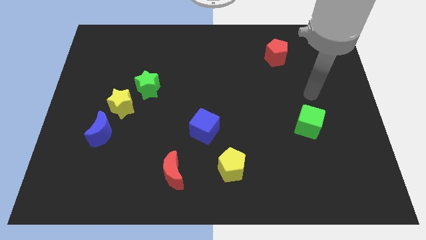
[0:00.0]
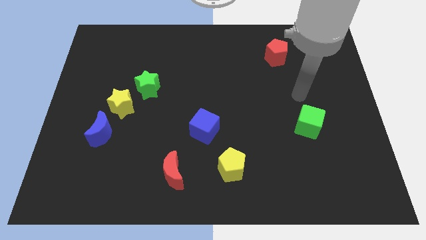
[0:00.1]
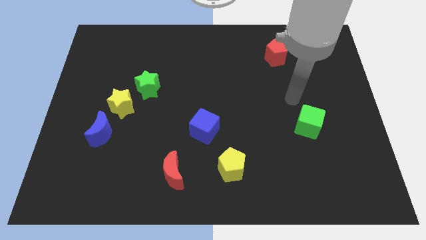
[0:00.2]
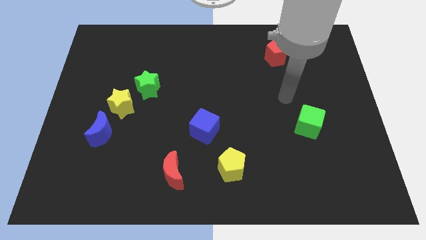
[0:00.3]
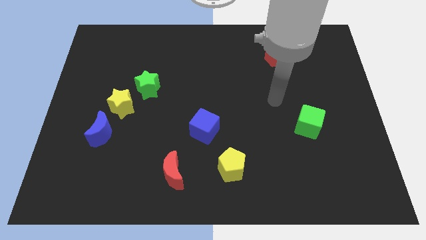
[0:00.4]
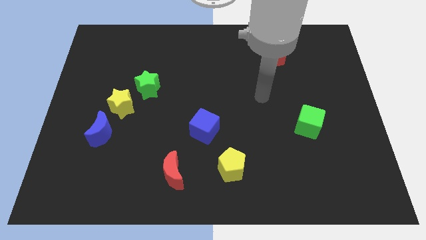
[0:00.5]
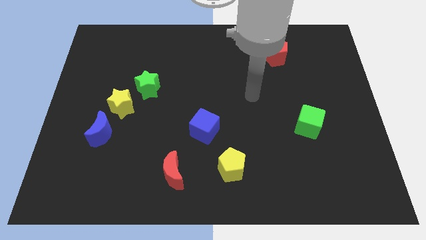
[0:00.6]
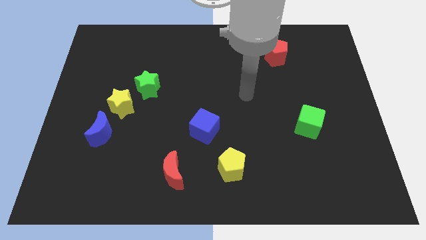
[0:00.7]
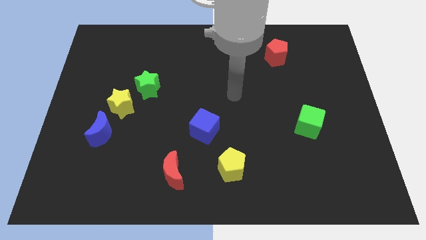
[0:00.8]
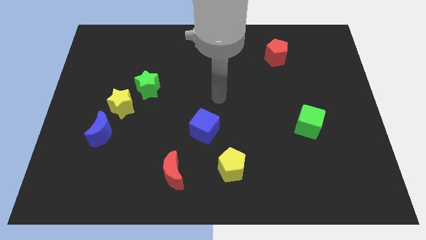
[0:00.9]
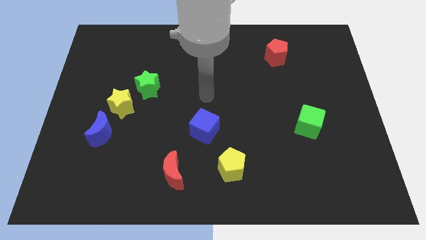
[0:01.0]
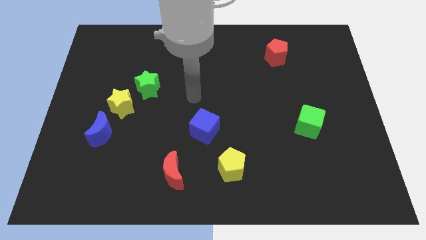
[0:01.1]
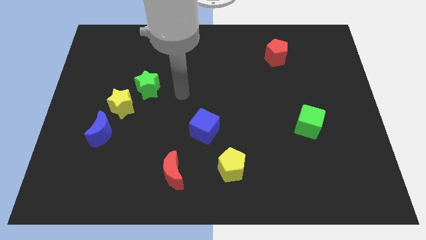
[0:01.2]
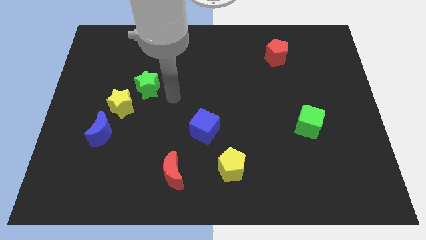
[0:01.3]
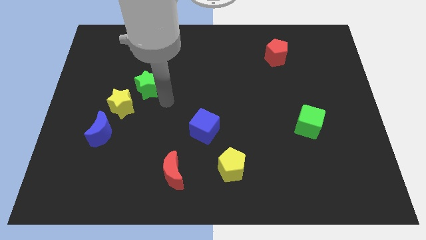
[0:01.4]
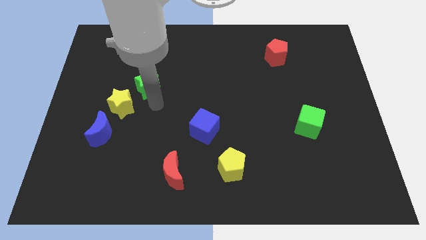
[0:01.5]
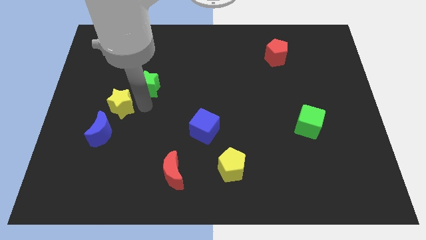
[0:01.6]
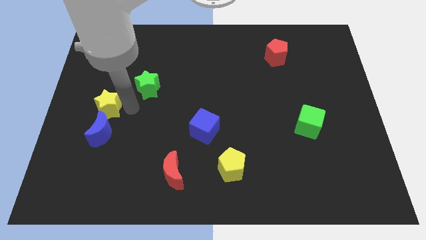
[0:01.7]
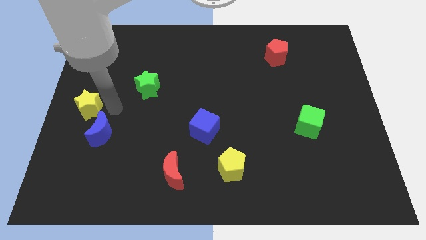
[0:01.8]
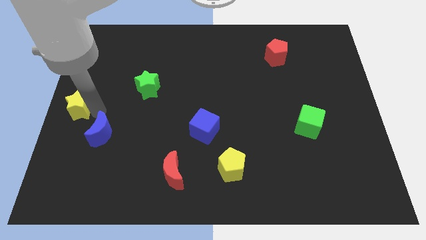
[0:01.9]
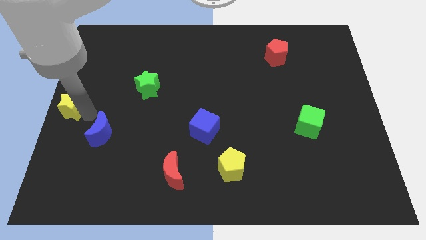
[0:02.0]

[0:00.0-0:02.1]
pull the blue moon apart from the yellow star

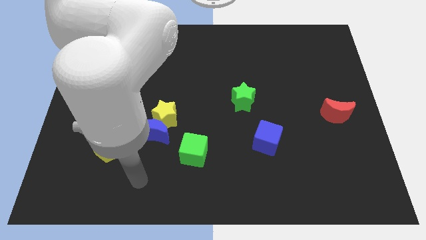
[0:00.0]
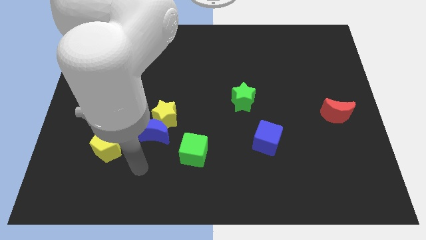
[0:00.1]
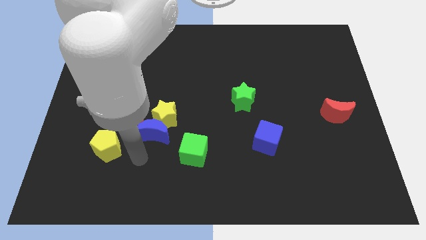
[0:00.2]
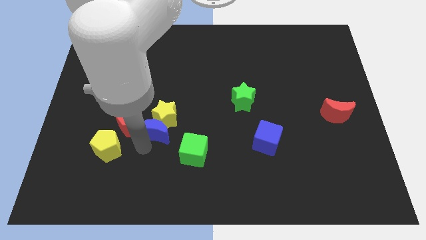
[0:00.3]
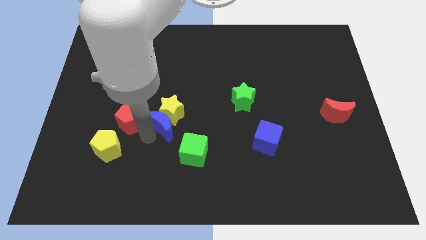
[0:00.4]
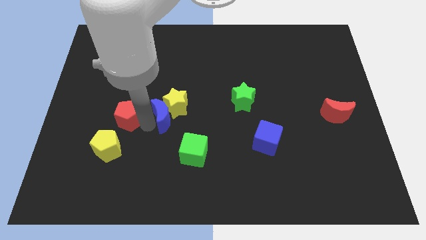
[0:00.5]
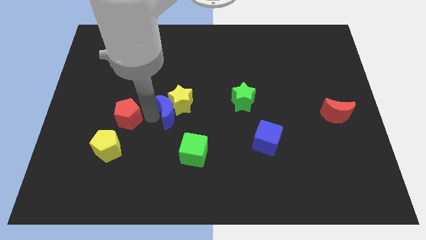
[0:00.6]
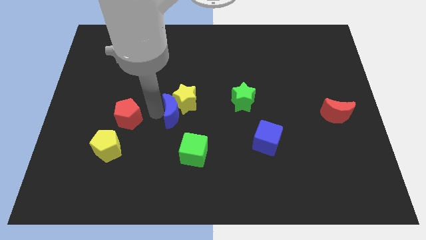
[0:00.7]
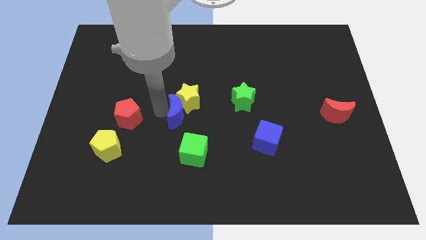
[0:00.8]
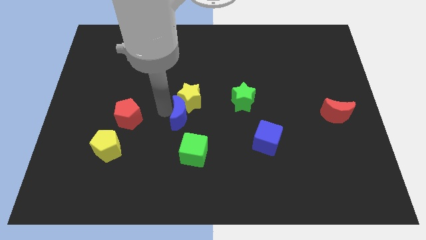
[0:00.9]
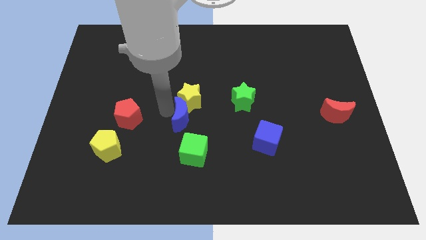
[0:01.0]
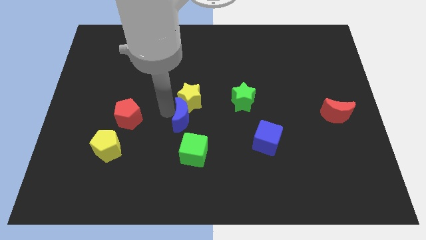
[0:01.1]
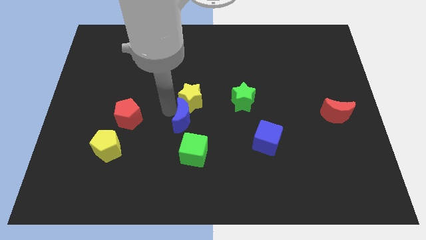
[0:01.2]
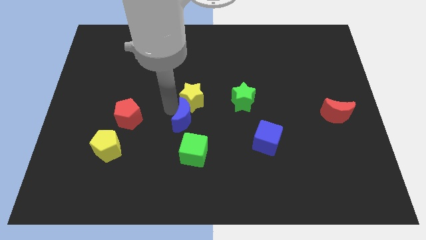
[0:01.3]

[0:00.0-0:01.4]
separate the yellow star from the blue moon and red pentagon

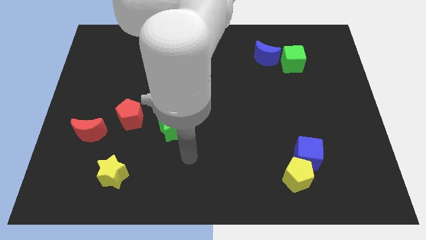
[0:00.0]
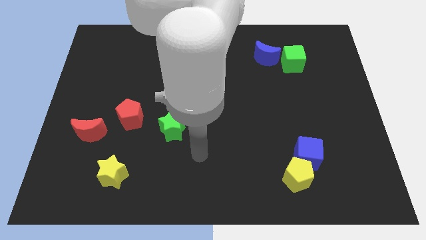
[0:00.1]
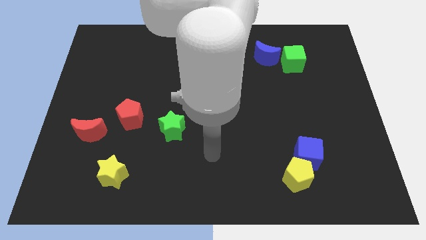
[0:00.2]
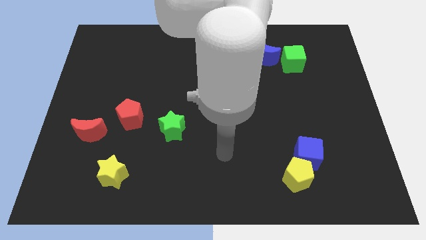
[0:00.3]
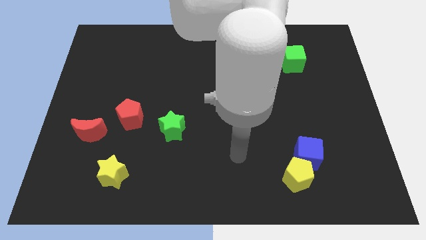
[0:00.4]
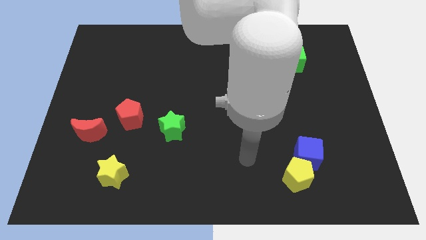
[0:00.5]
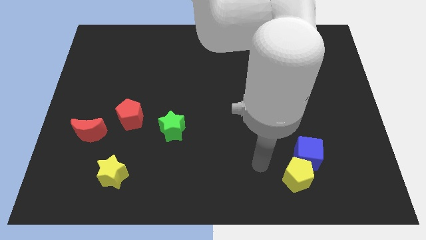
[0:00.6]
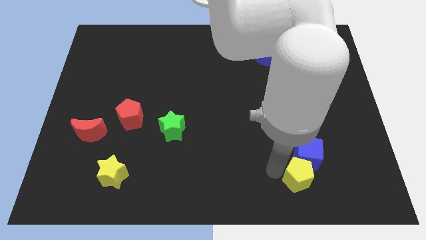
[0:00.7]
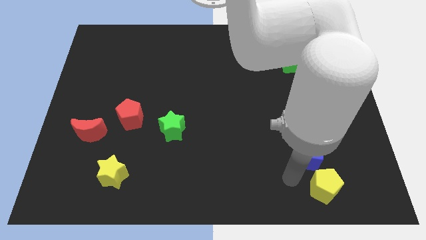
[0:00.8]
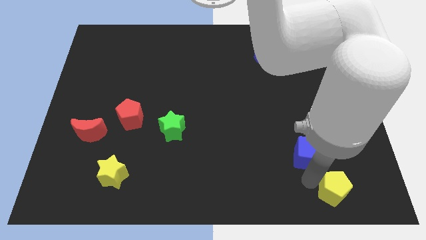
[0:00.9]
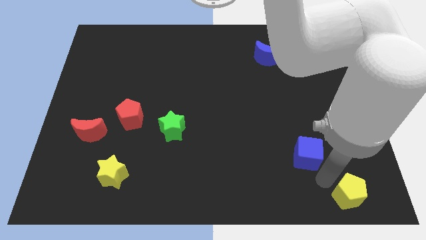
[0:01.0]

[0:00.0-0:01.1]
move the blue cube away from the yellow pentagon

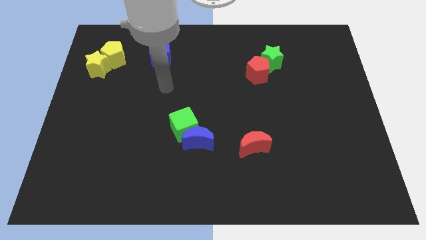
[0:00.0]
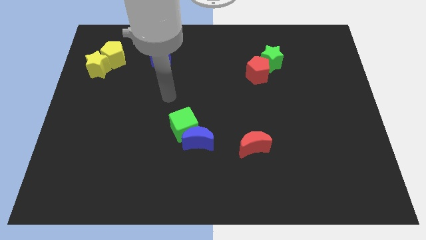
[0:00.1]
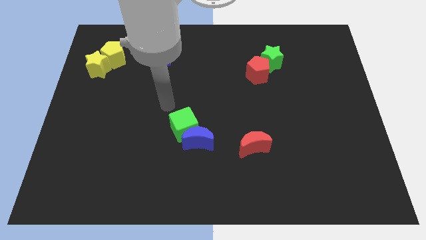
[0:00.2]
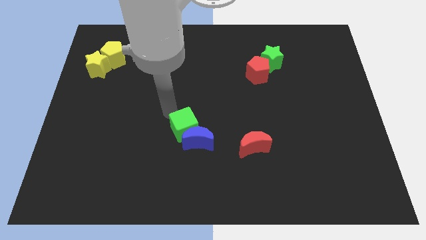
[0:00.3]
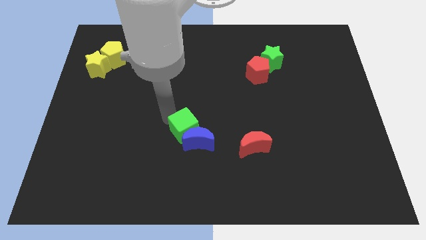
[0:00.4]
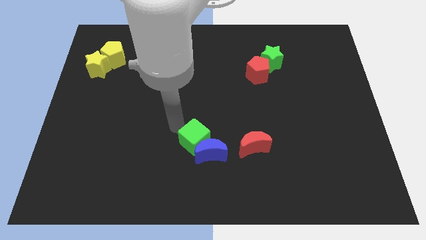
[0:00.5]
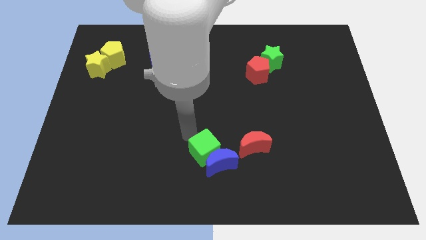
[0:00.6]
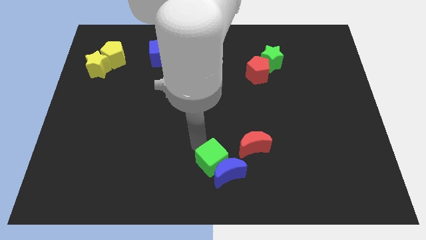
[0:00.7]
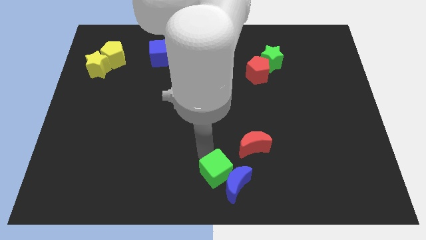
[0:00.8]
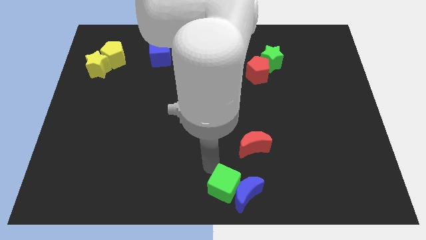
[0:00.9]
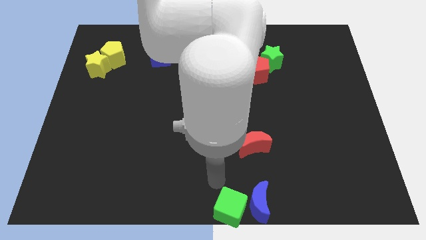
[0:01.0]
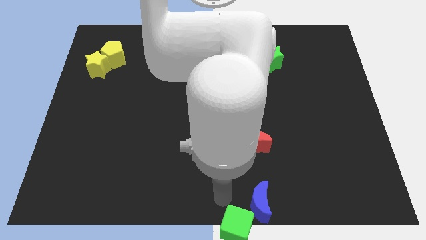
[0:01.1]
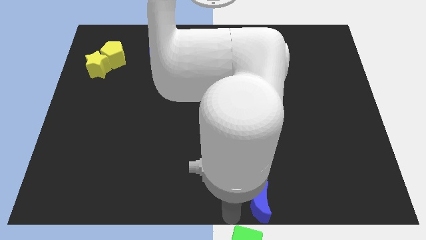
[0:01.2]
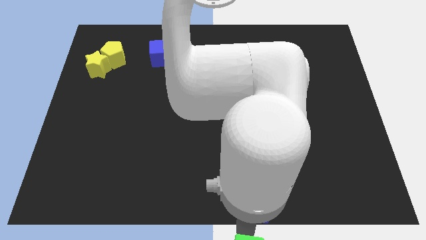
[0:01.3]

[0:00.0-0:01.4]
move the blue moon away from the green cube

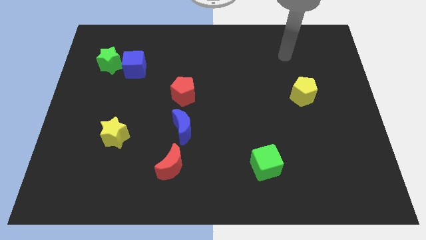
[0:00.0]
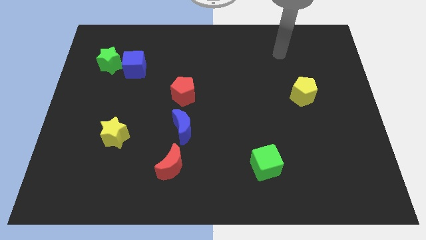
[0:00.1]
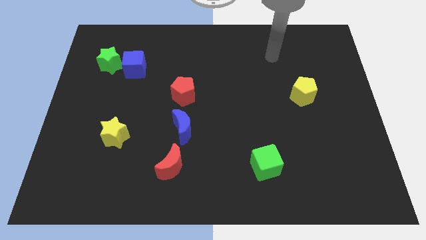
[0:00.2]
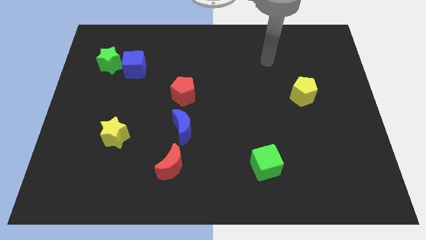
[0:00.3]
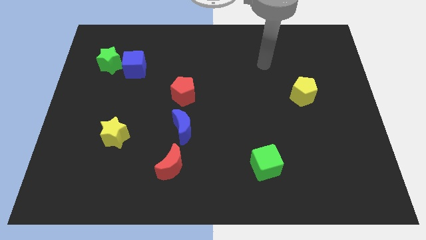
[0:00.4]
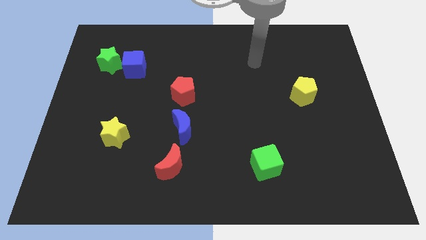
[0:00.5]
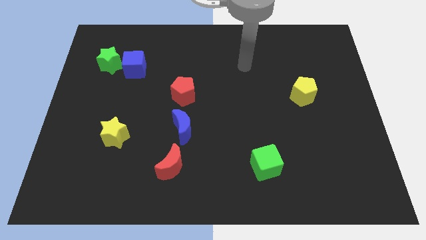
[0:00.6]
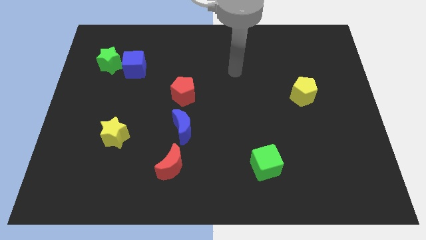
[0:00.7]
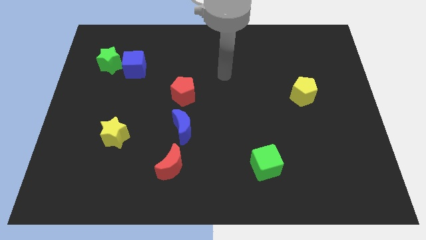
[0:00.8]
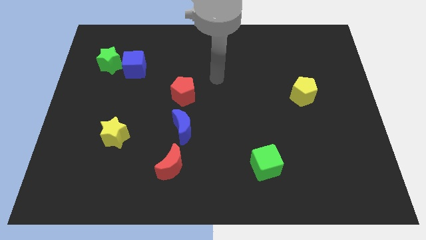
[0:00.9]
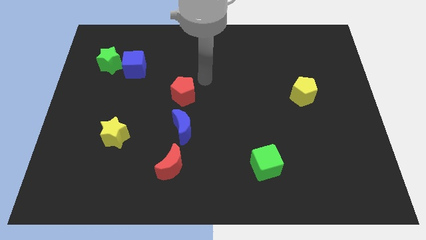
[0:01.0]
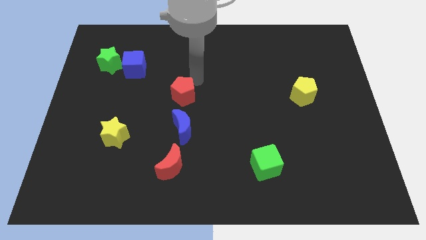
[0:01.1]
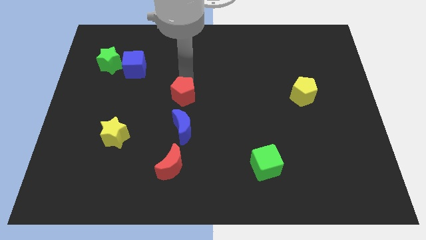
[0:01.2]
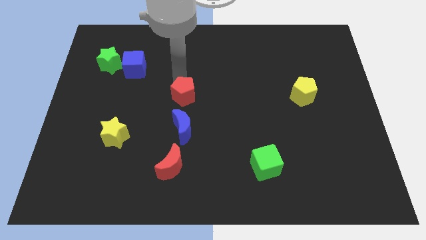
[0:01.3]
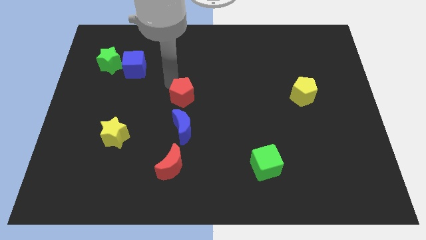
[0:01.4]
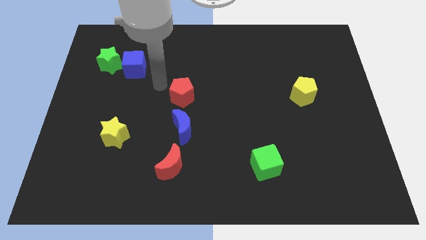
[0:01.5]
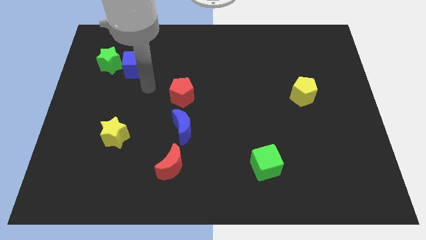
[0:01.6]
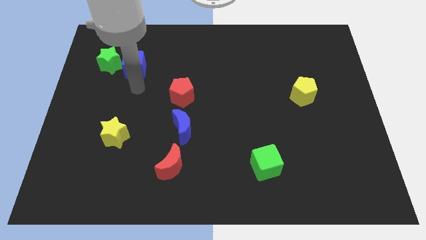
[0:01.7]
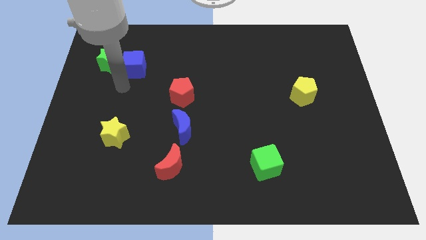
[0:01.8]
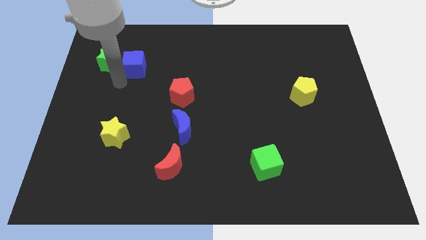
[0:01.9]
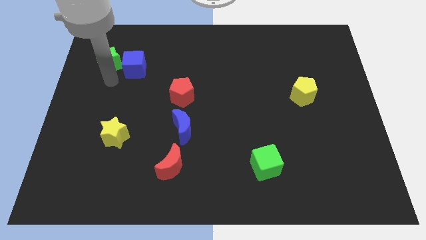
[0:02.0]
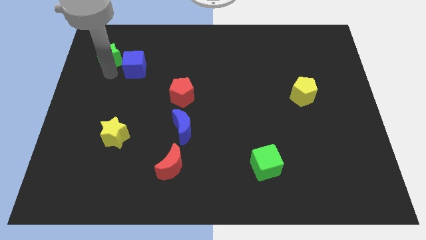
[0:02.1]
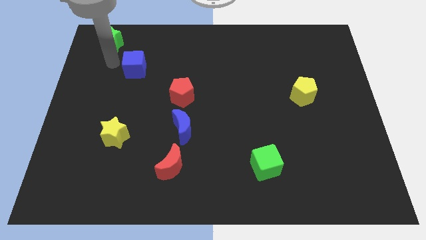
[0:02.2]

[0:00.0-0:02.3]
move the blue cube away from the green star

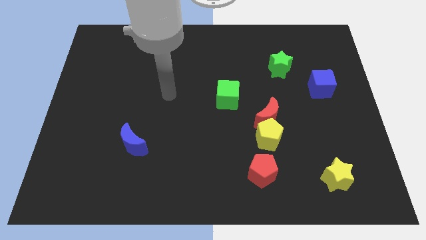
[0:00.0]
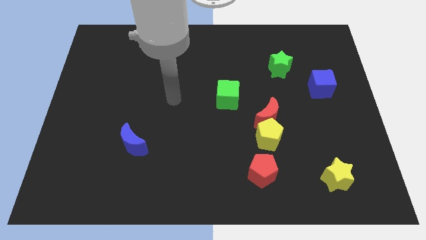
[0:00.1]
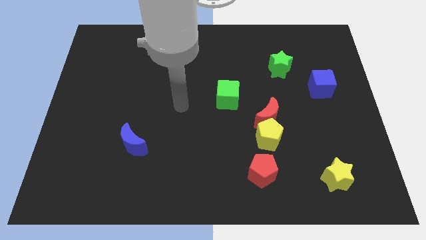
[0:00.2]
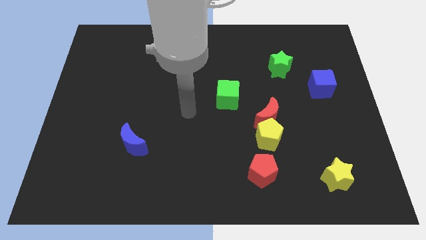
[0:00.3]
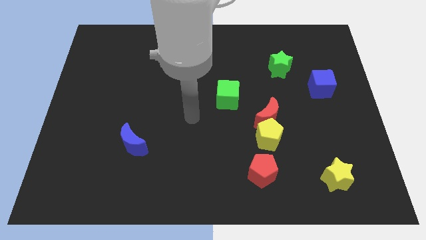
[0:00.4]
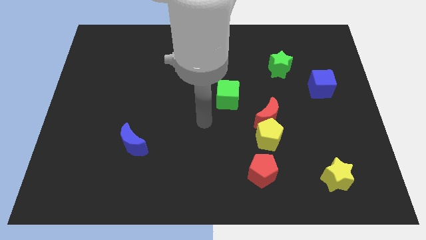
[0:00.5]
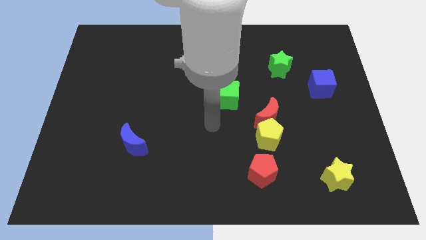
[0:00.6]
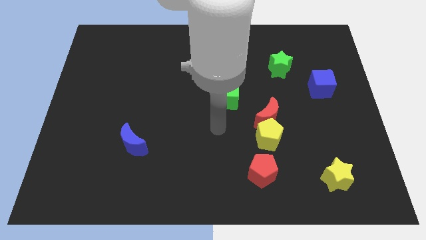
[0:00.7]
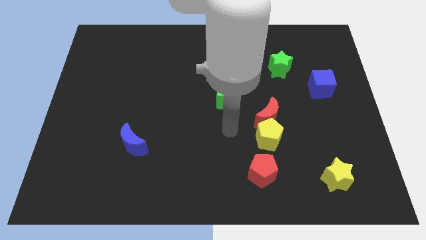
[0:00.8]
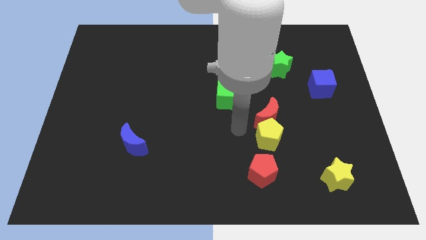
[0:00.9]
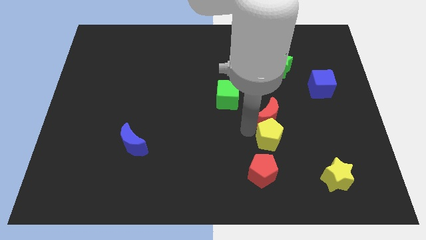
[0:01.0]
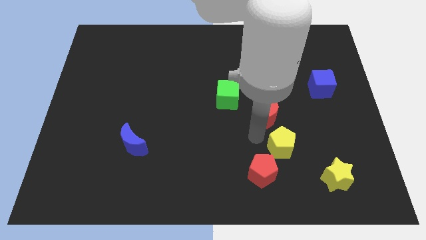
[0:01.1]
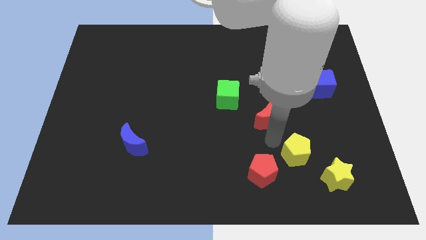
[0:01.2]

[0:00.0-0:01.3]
move the red moon away from the yellow pentagon
